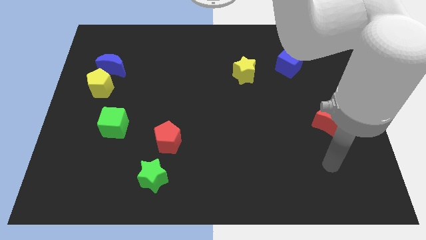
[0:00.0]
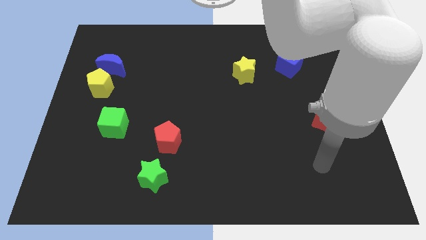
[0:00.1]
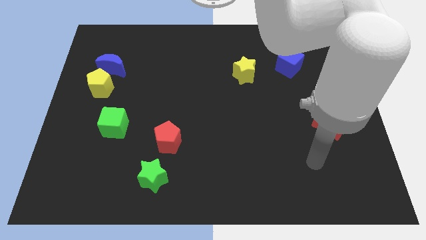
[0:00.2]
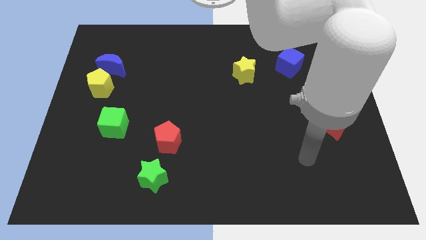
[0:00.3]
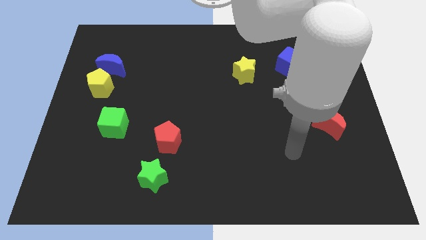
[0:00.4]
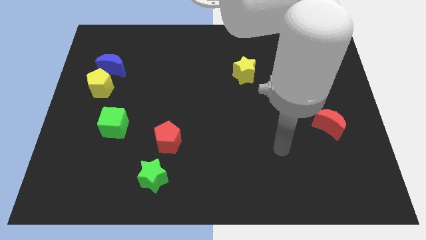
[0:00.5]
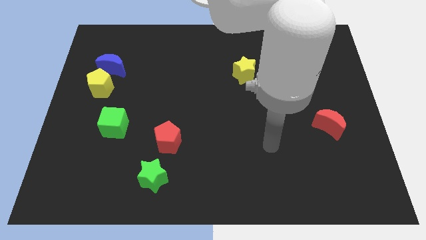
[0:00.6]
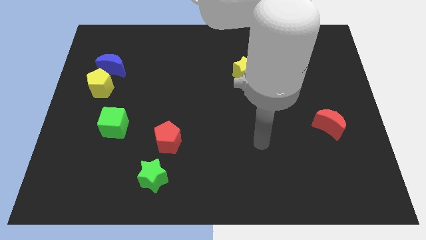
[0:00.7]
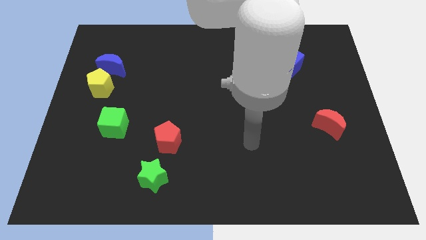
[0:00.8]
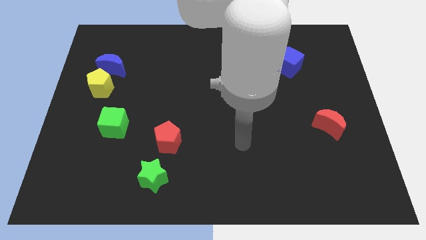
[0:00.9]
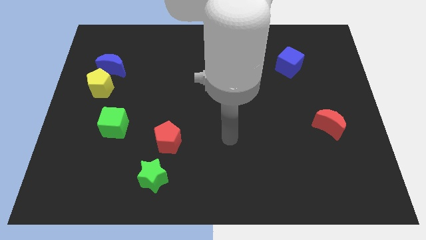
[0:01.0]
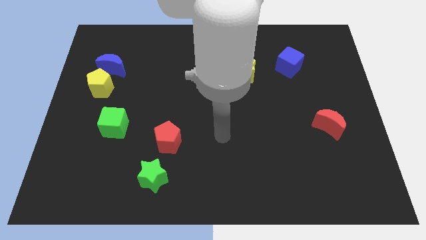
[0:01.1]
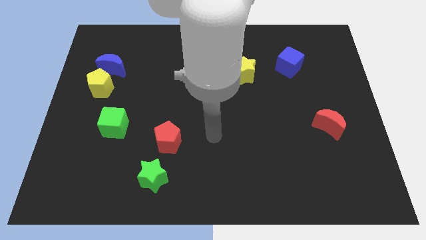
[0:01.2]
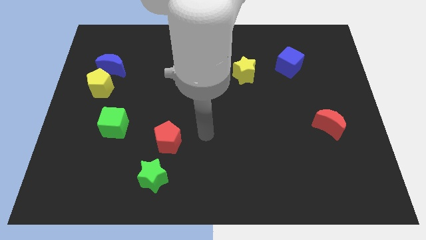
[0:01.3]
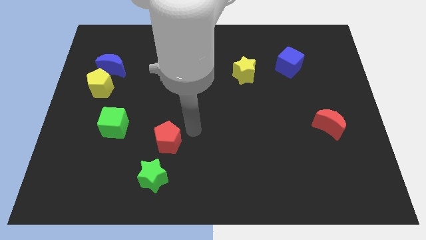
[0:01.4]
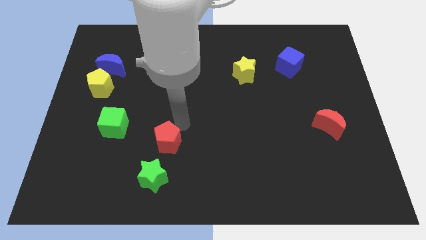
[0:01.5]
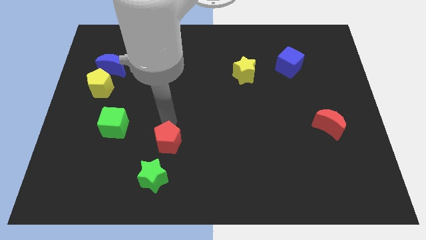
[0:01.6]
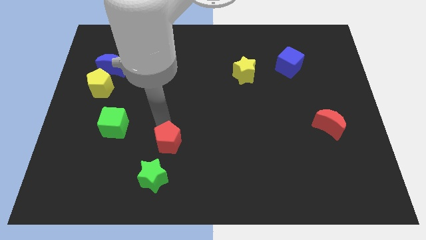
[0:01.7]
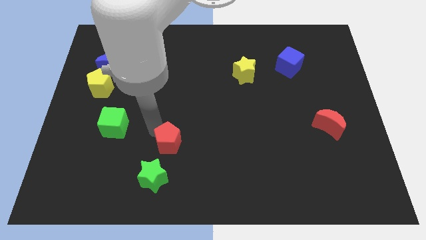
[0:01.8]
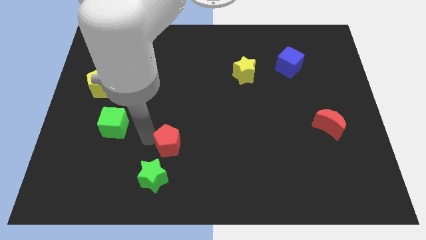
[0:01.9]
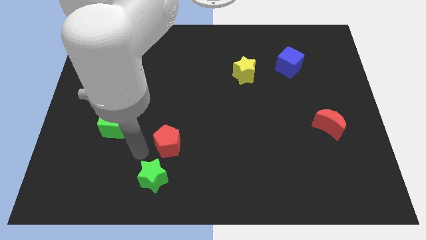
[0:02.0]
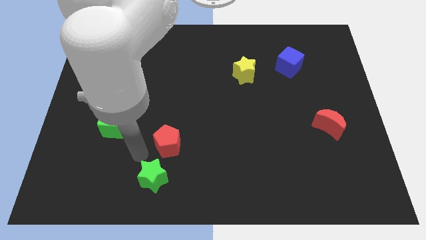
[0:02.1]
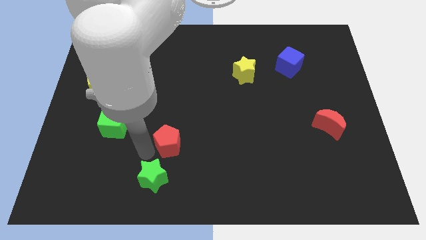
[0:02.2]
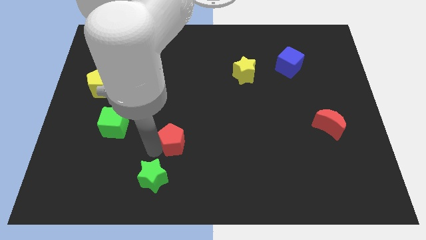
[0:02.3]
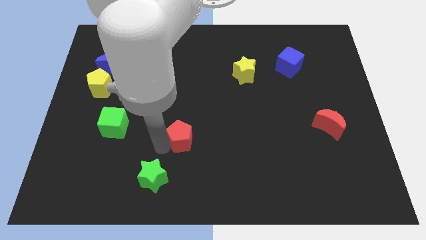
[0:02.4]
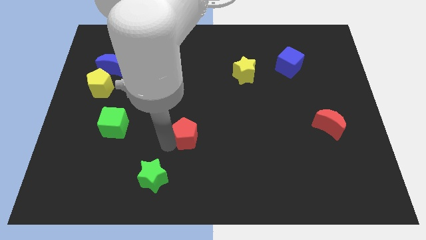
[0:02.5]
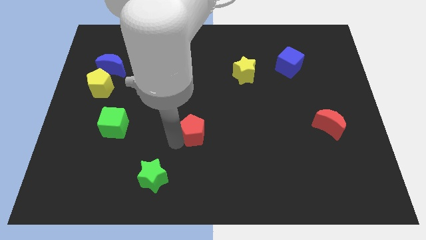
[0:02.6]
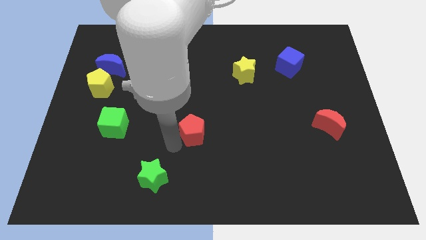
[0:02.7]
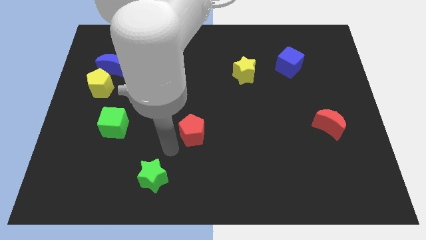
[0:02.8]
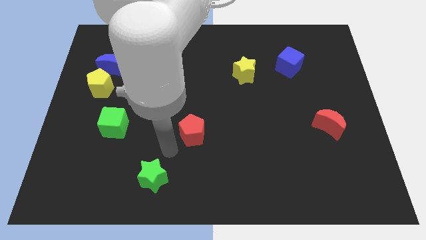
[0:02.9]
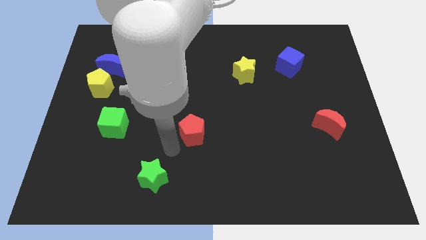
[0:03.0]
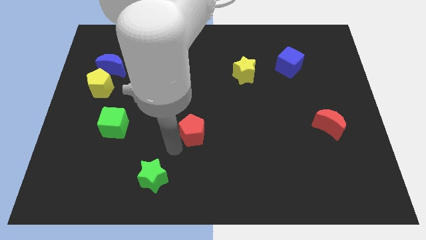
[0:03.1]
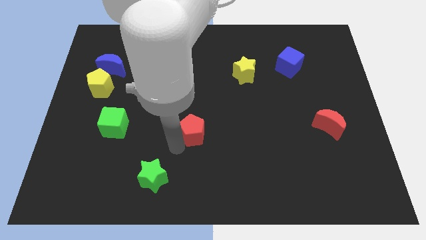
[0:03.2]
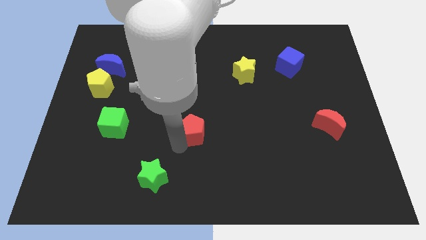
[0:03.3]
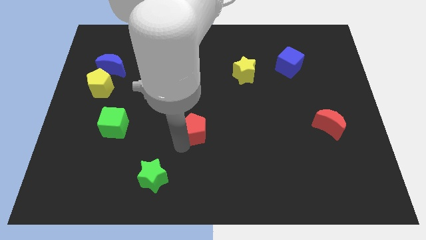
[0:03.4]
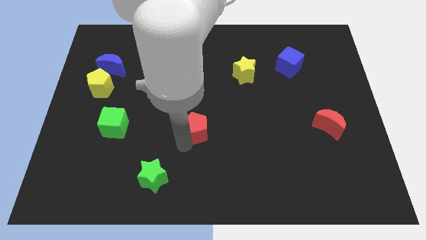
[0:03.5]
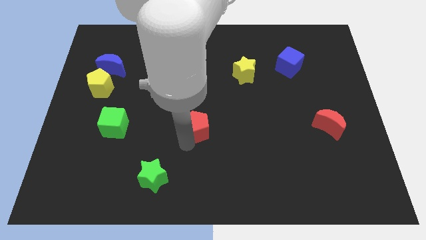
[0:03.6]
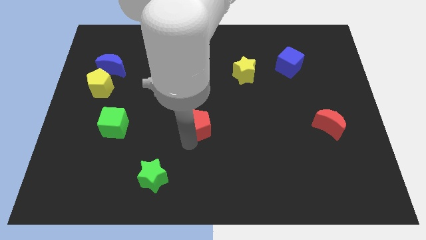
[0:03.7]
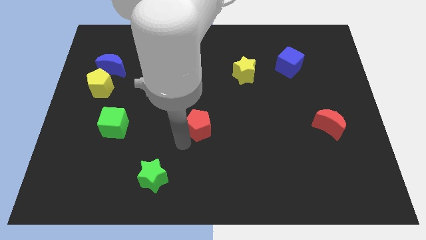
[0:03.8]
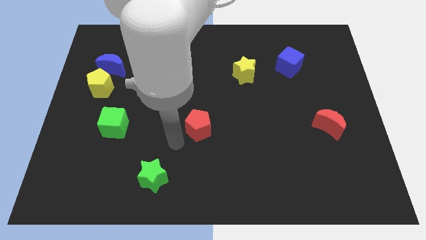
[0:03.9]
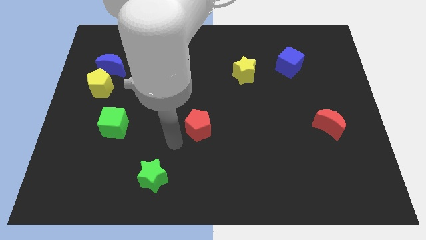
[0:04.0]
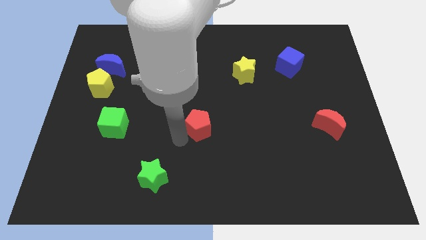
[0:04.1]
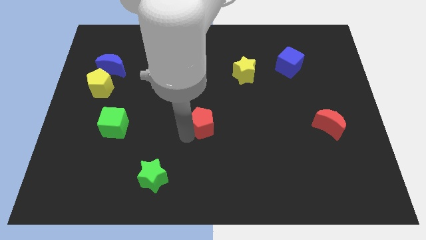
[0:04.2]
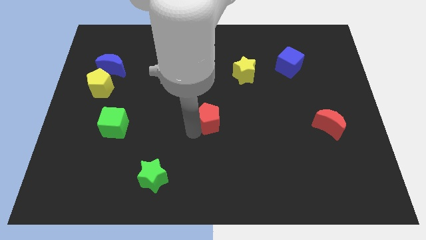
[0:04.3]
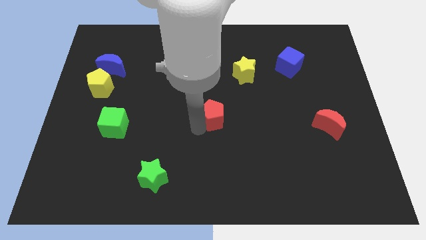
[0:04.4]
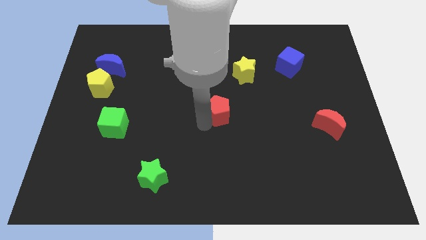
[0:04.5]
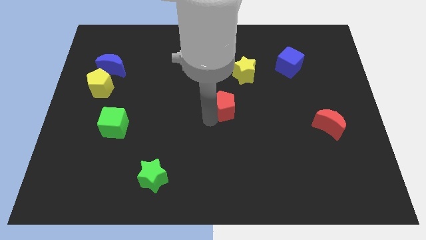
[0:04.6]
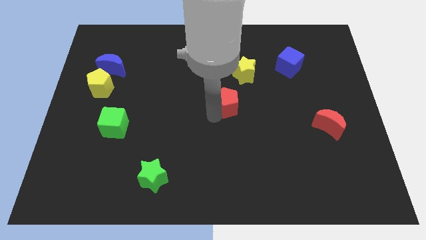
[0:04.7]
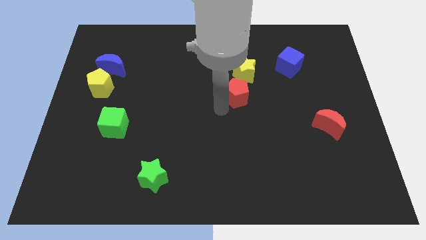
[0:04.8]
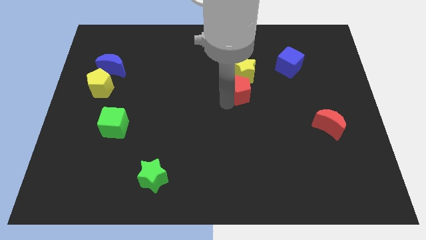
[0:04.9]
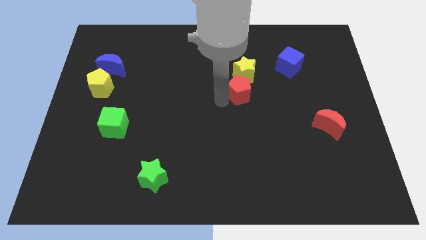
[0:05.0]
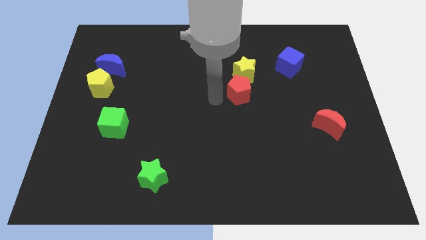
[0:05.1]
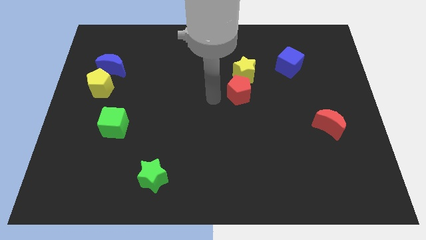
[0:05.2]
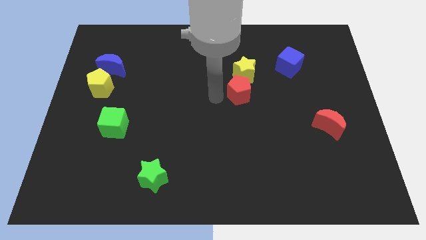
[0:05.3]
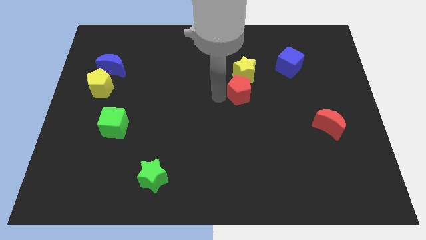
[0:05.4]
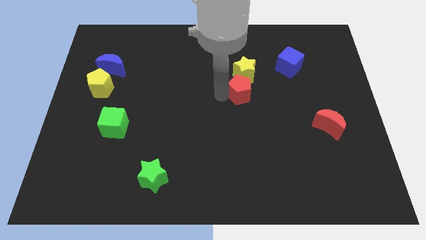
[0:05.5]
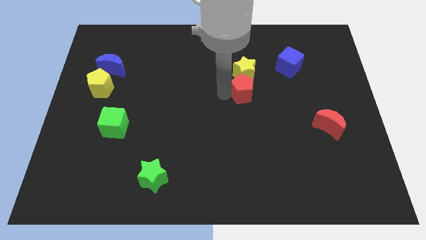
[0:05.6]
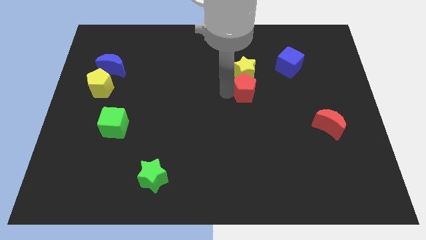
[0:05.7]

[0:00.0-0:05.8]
put the red pentagon to the bottom right of the yellow star

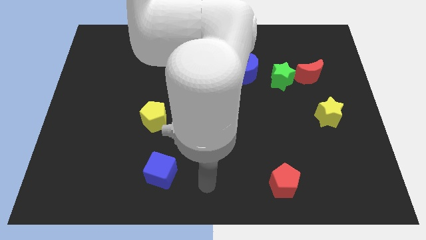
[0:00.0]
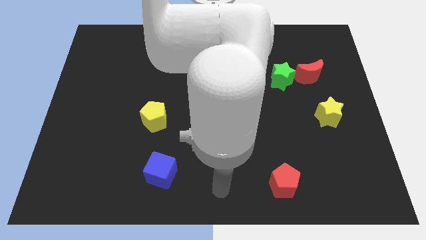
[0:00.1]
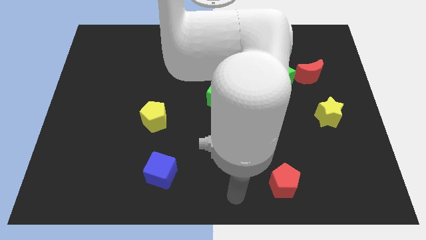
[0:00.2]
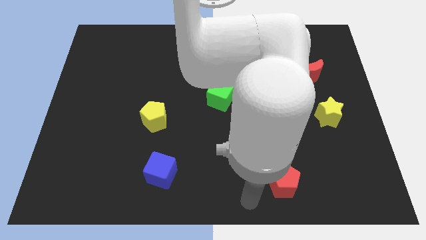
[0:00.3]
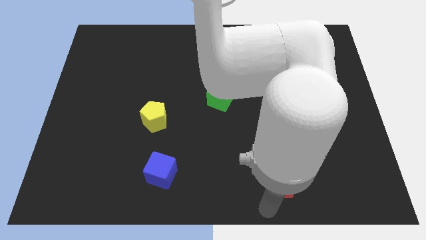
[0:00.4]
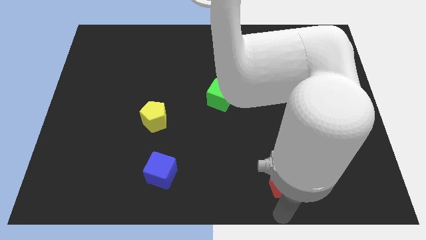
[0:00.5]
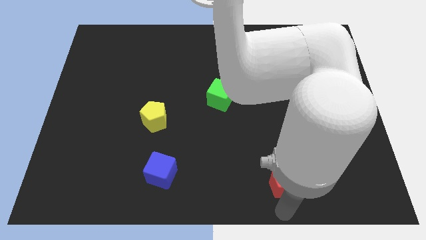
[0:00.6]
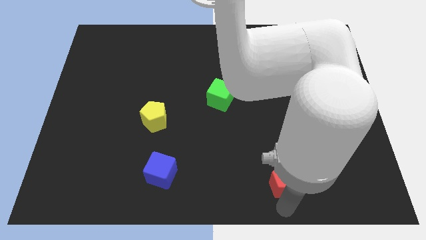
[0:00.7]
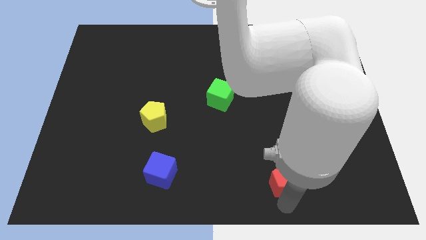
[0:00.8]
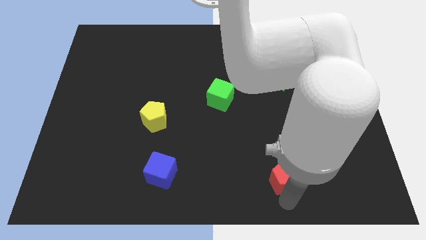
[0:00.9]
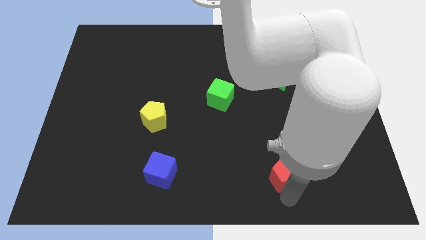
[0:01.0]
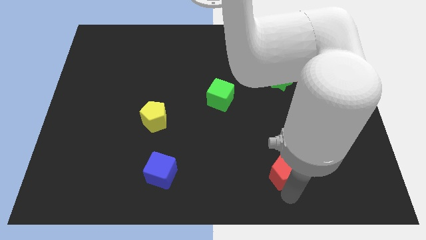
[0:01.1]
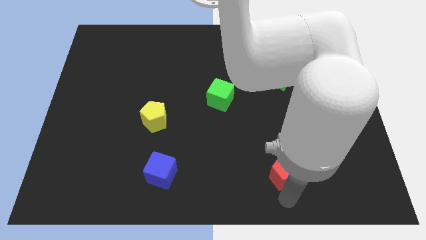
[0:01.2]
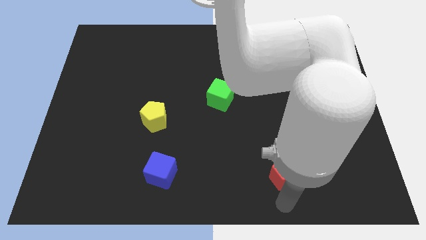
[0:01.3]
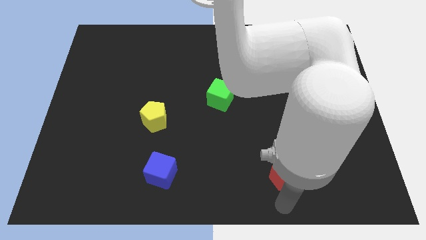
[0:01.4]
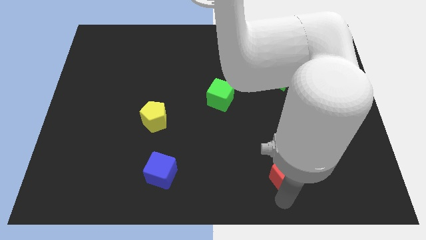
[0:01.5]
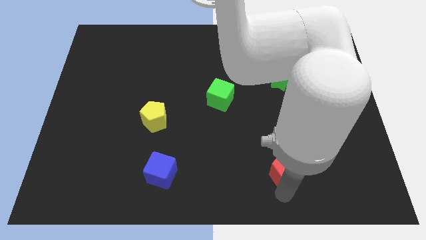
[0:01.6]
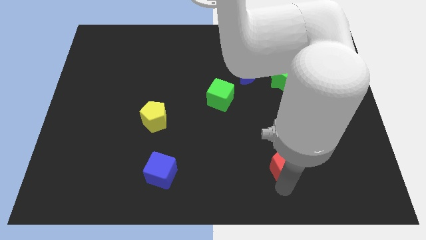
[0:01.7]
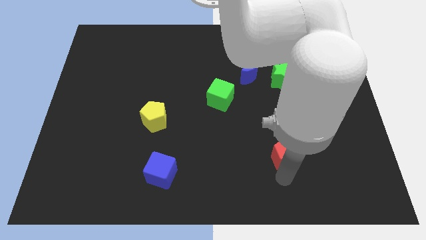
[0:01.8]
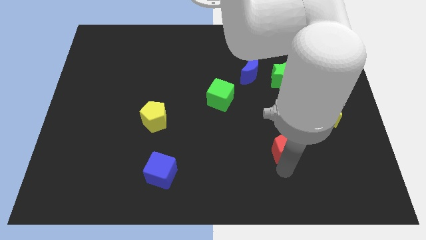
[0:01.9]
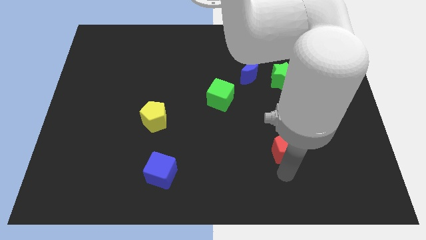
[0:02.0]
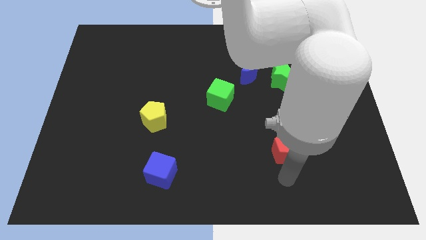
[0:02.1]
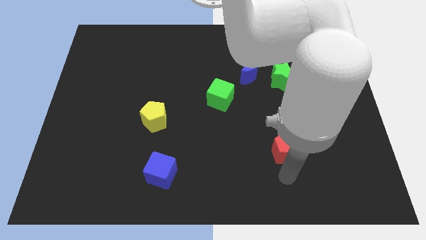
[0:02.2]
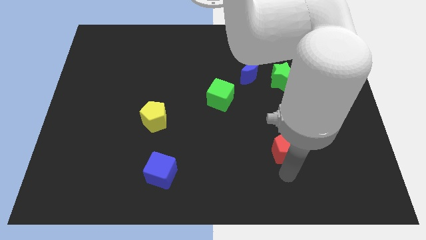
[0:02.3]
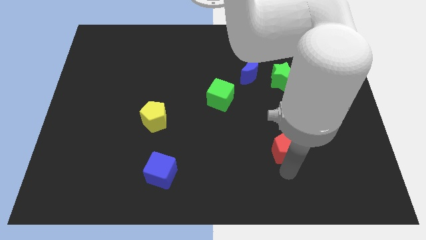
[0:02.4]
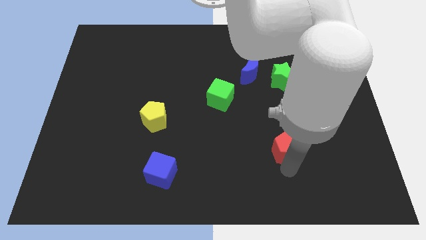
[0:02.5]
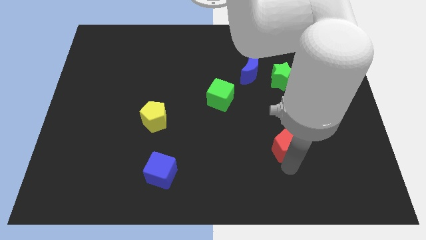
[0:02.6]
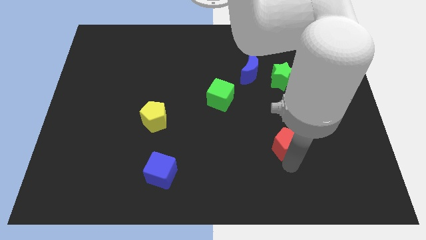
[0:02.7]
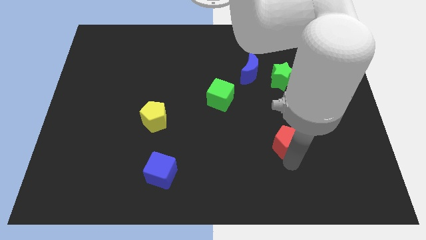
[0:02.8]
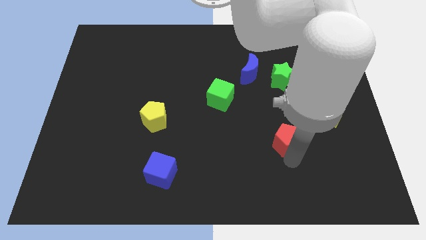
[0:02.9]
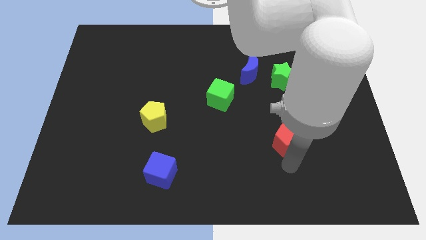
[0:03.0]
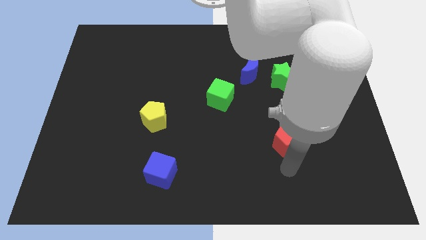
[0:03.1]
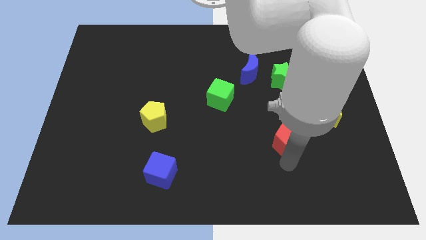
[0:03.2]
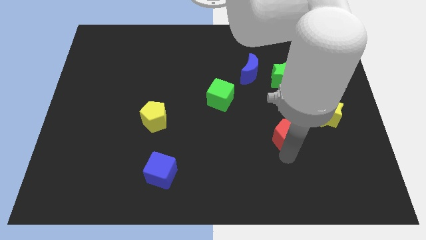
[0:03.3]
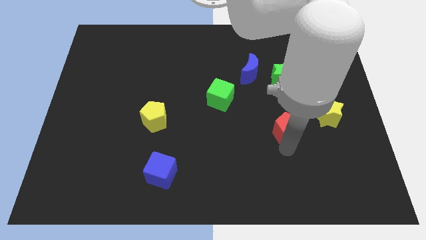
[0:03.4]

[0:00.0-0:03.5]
push the red pentagon to the left of the yellow star
